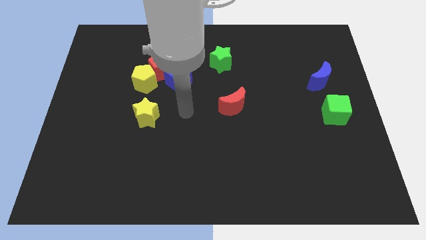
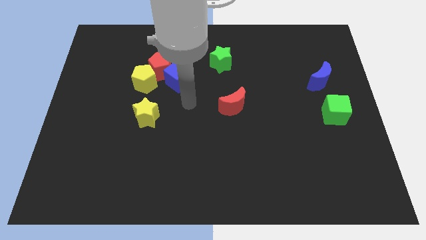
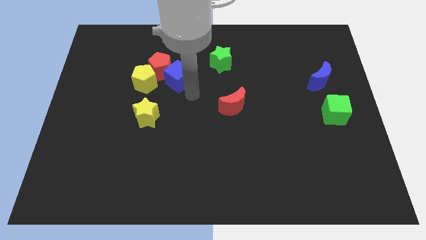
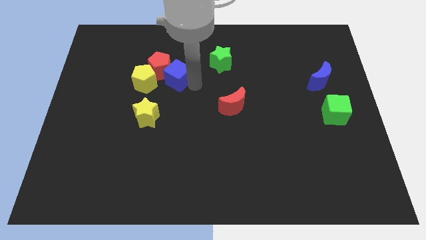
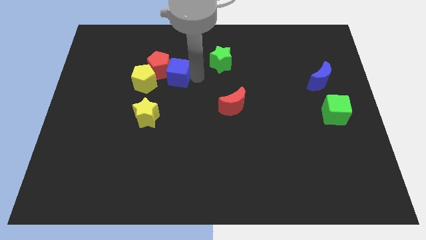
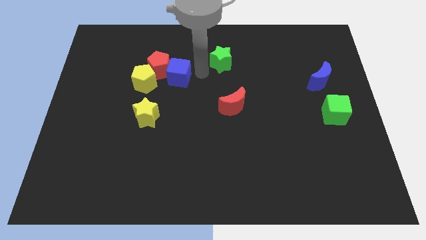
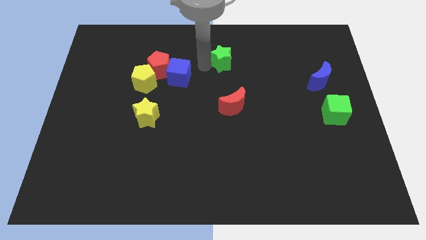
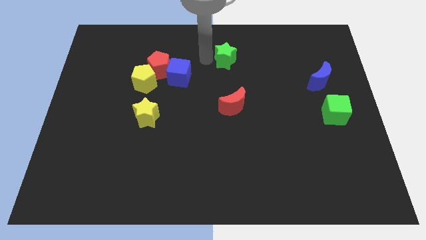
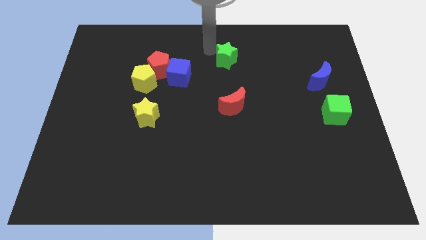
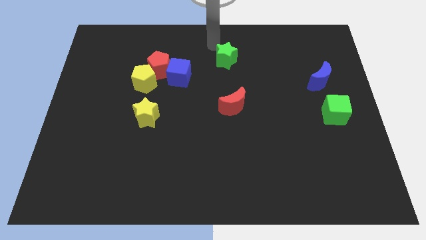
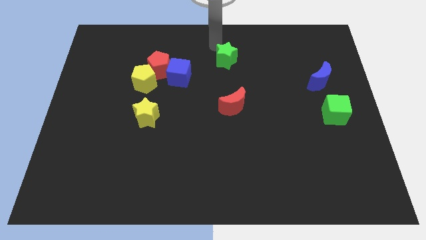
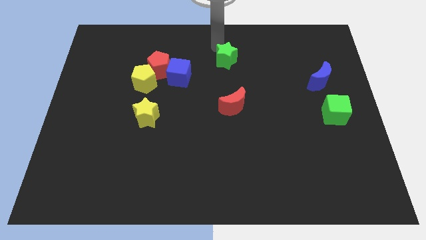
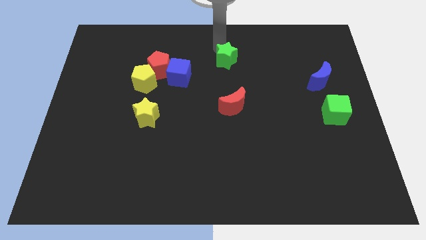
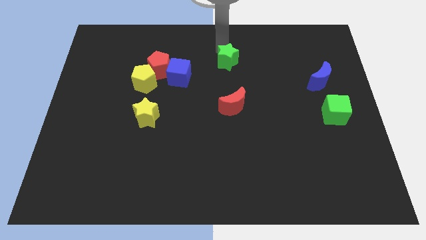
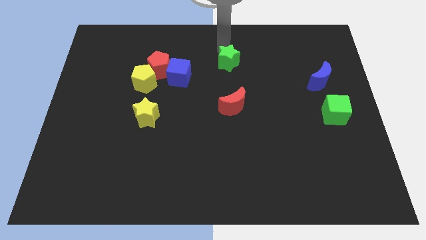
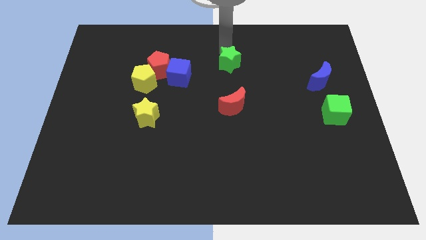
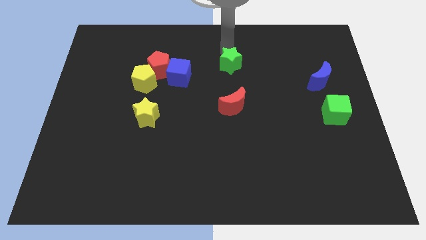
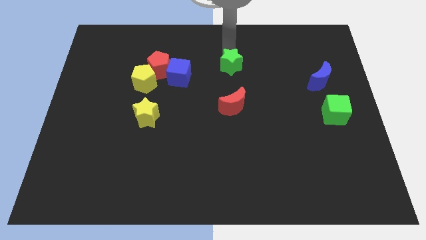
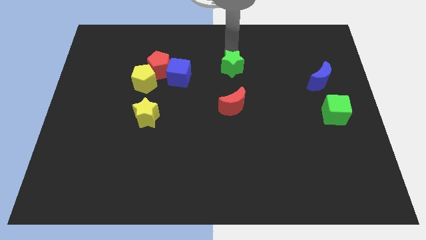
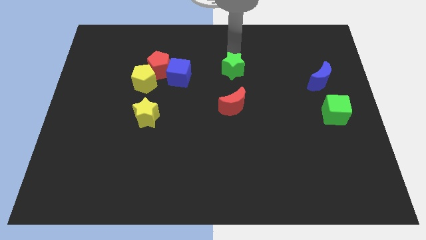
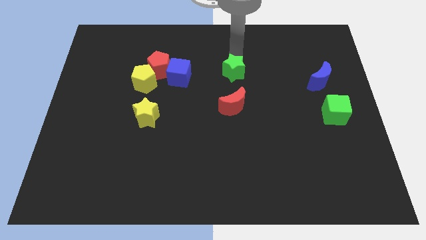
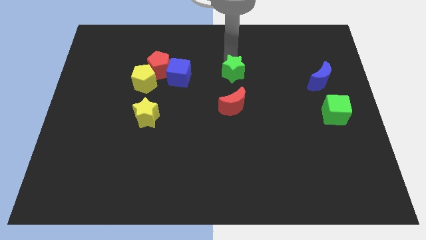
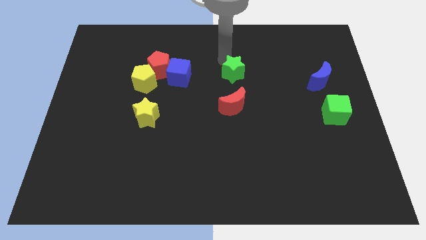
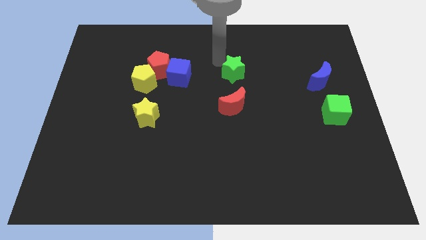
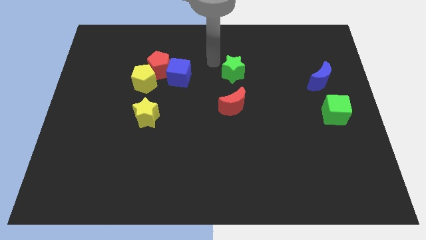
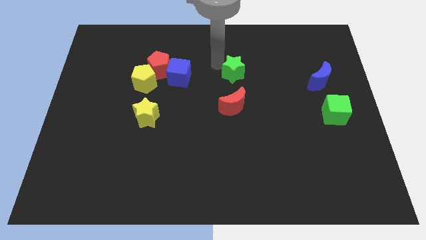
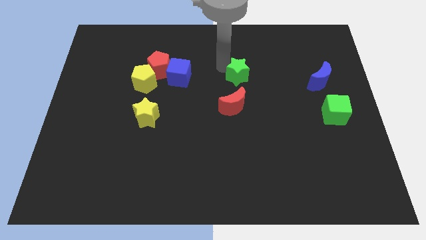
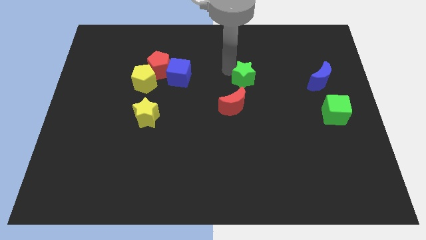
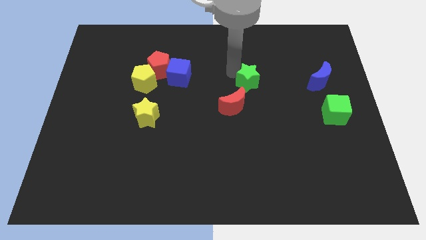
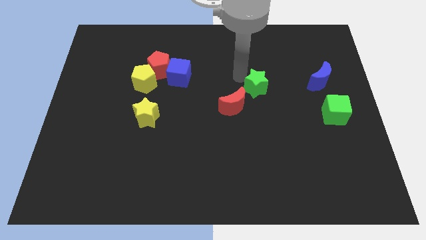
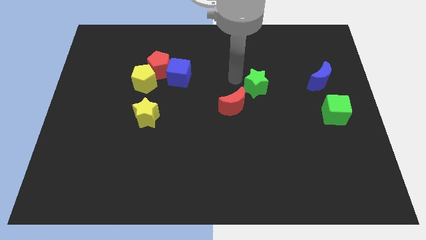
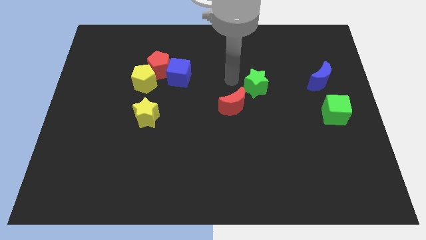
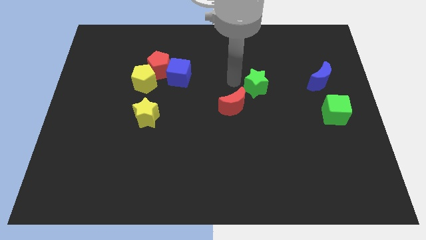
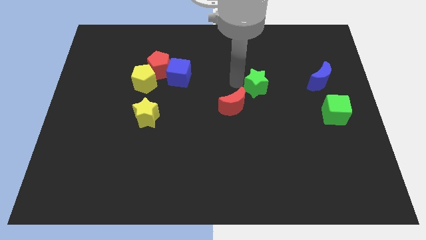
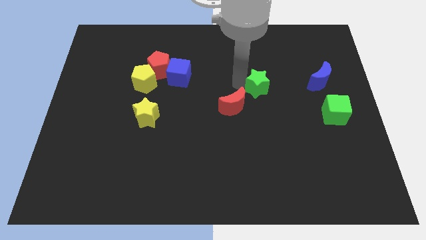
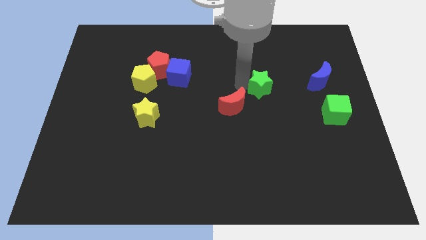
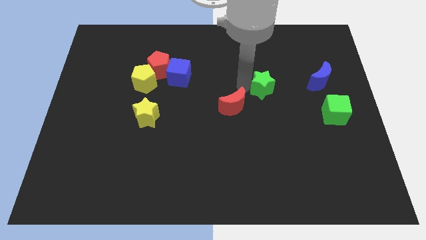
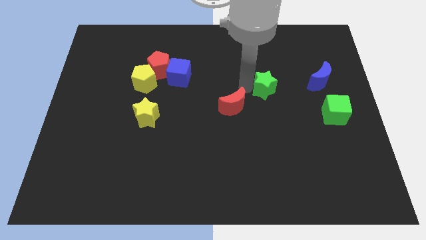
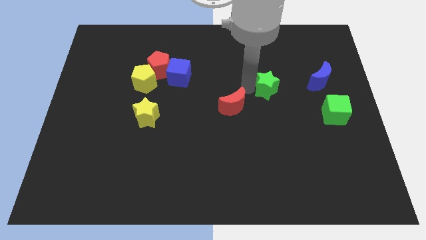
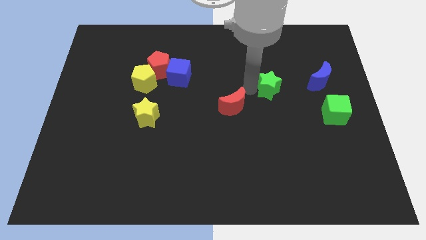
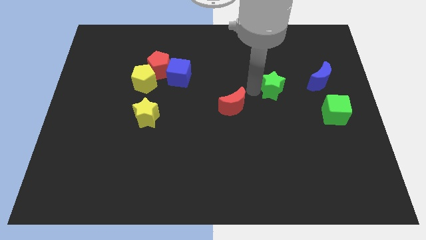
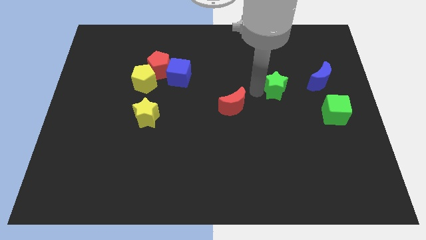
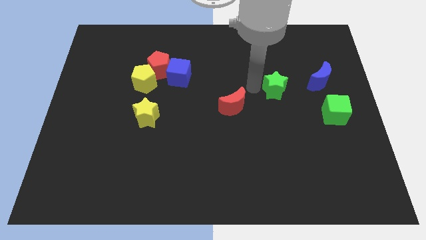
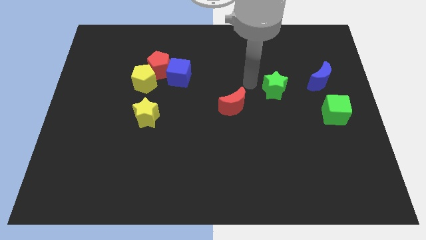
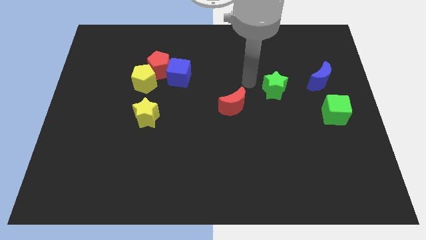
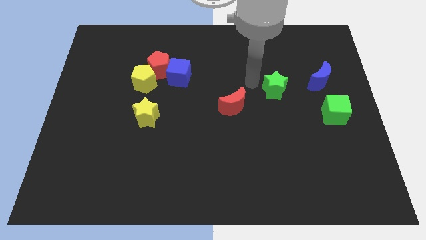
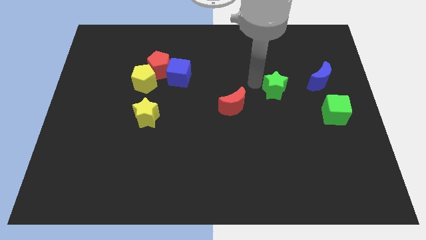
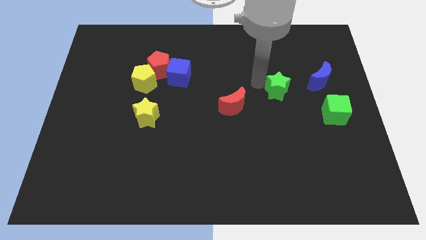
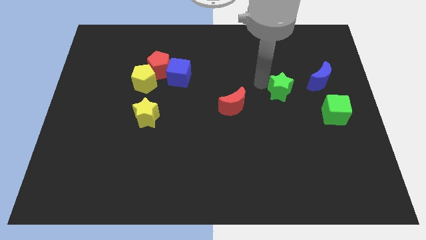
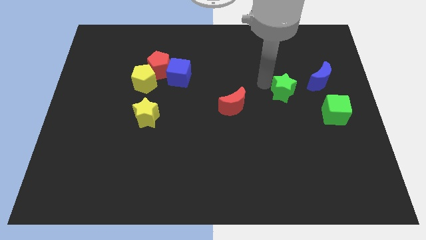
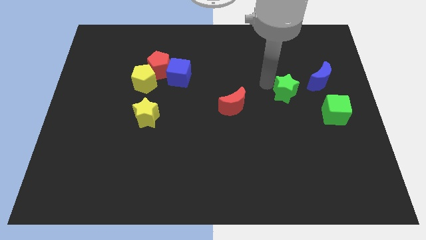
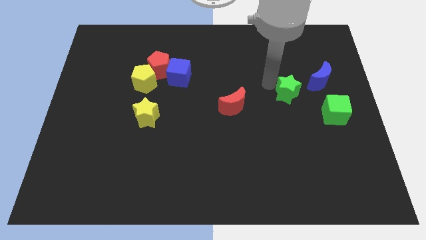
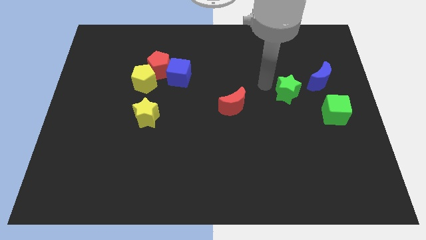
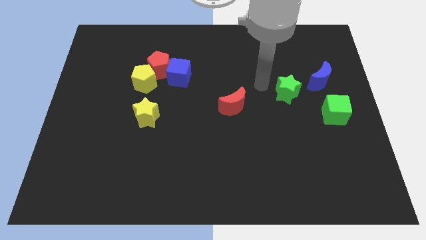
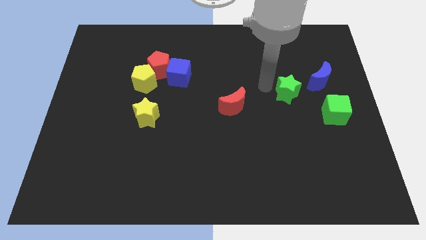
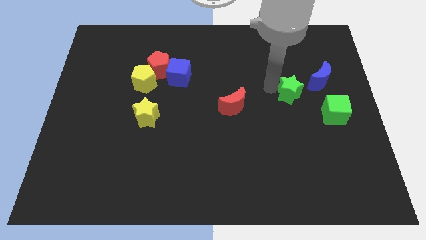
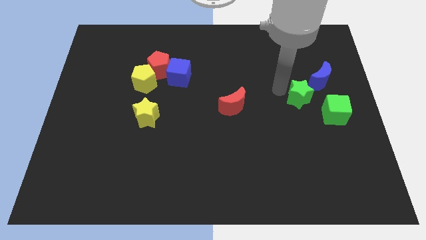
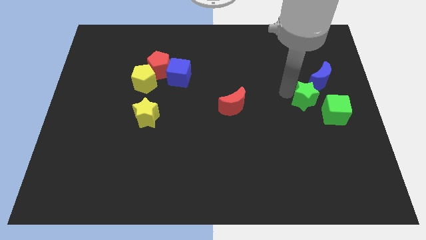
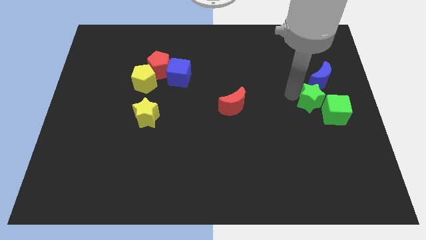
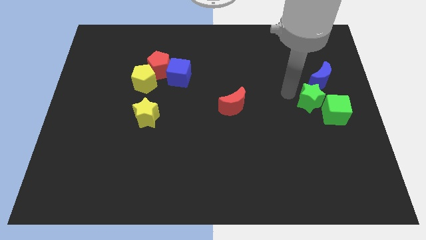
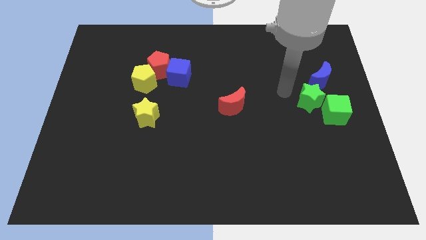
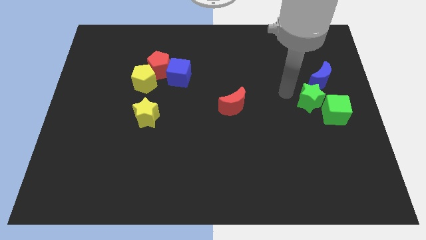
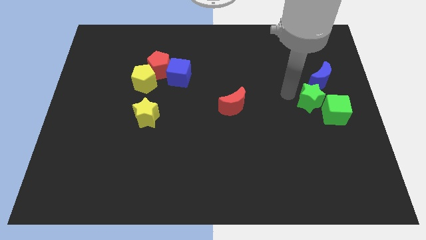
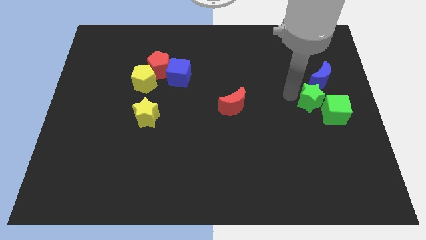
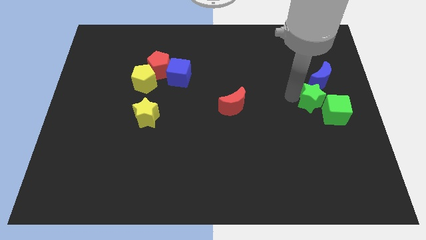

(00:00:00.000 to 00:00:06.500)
move the green star towards the green cube

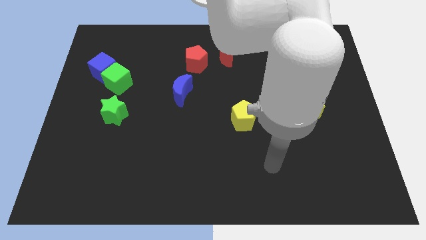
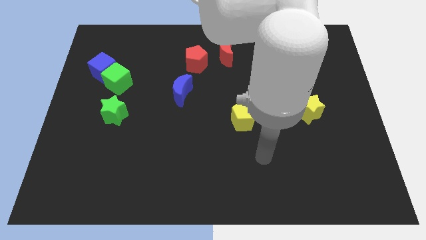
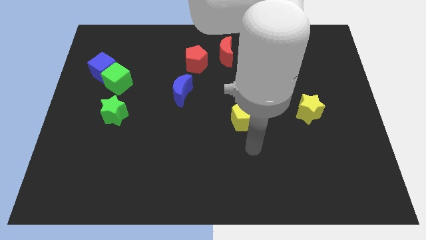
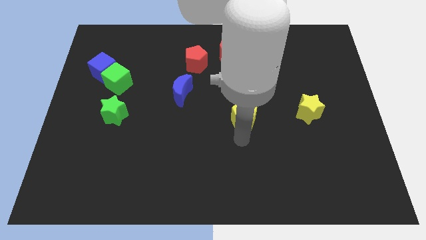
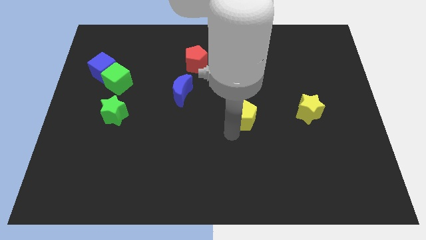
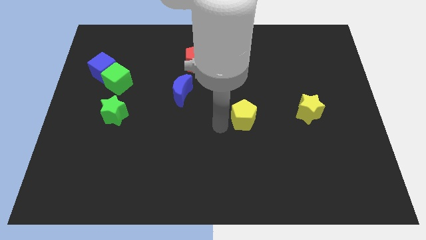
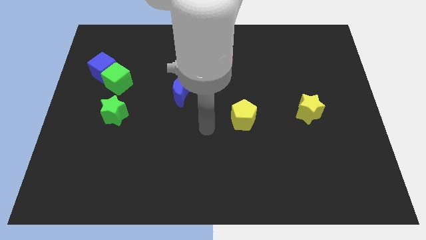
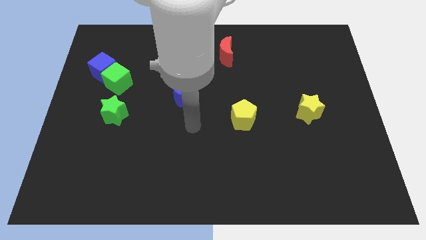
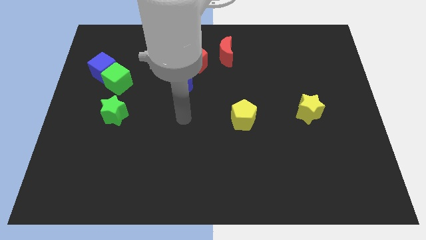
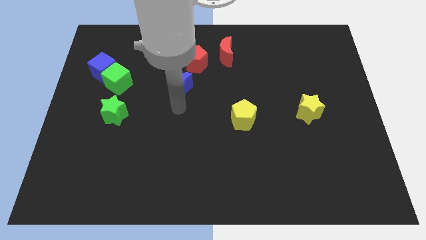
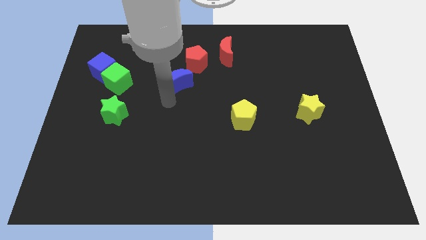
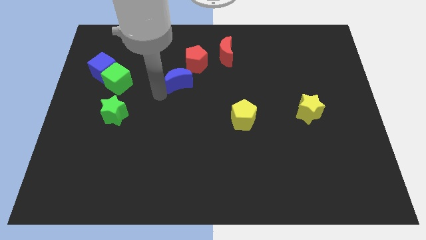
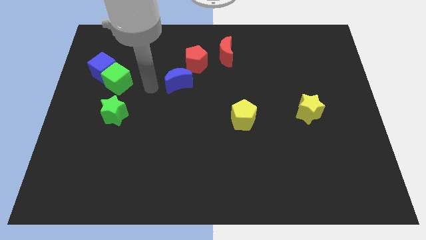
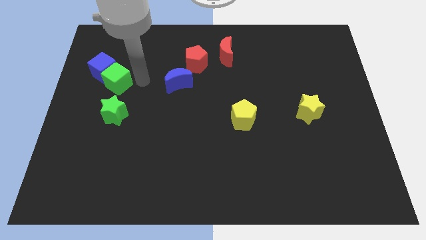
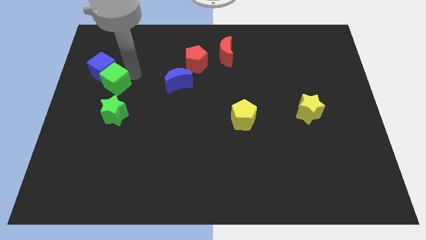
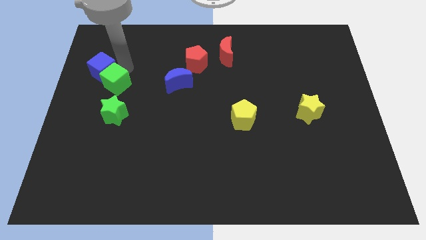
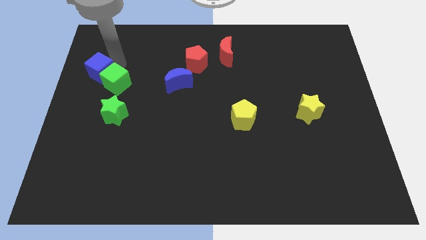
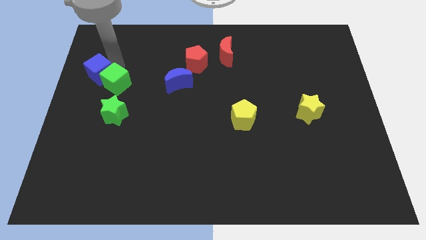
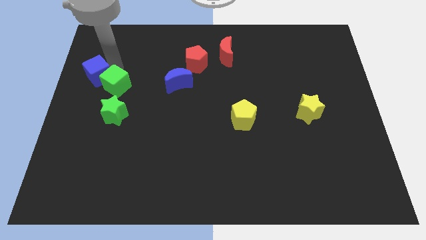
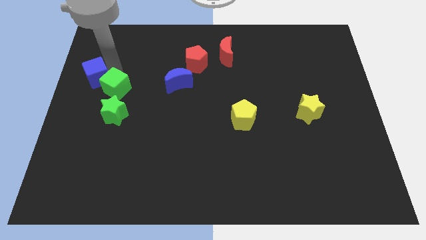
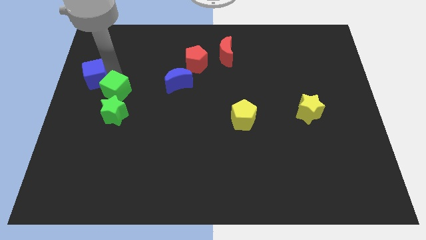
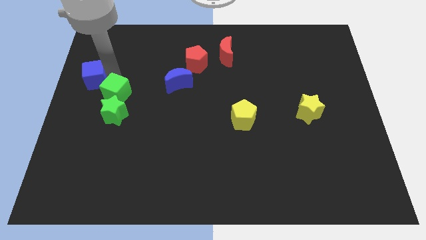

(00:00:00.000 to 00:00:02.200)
slide the green cube to the green star
